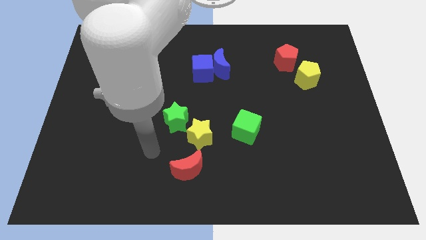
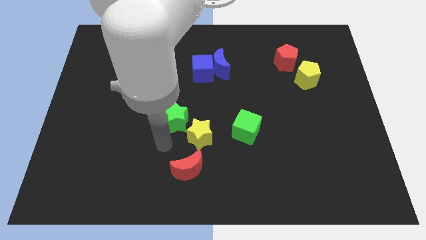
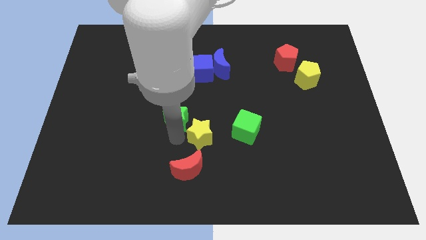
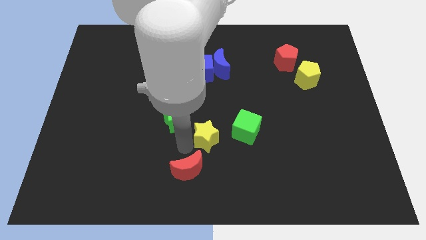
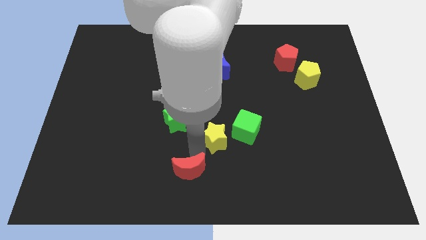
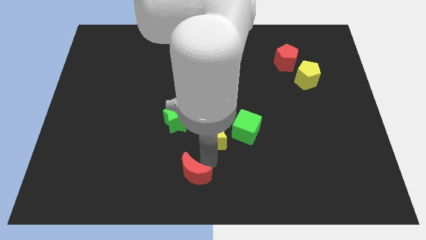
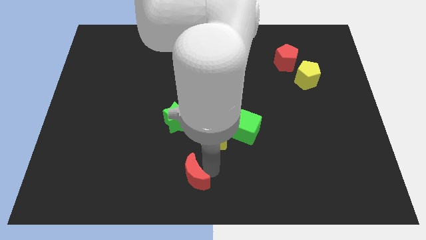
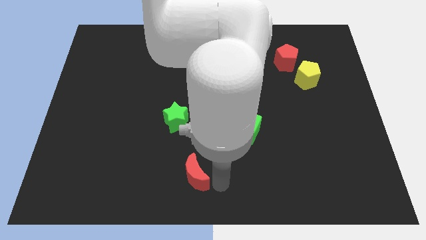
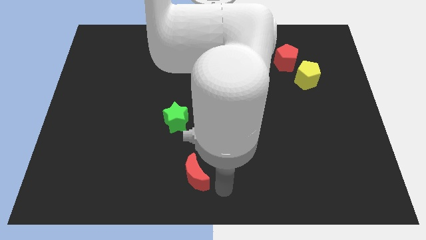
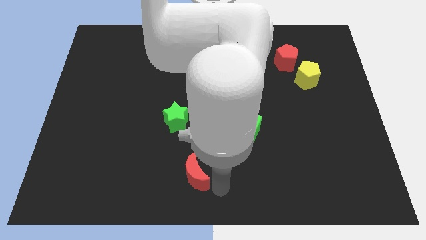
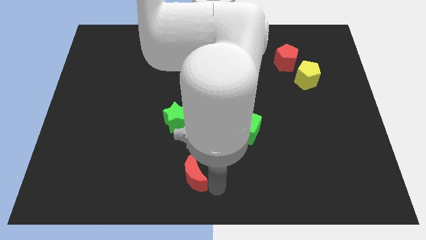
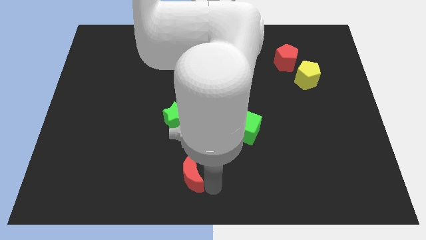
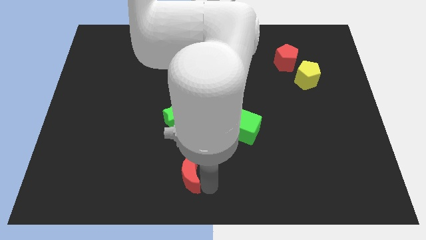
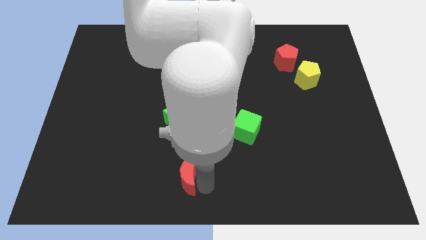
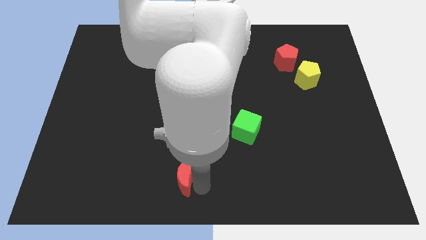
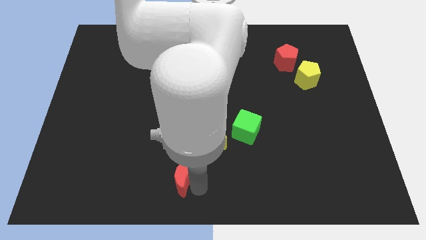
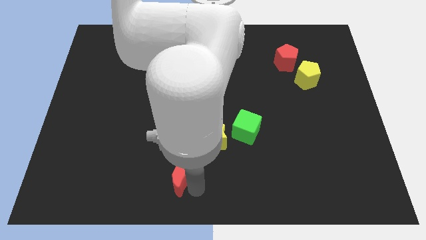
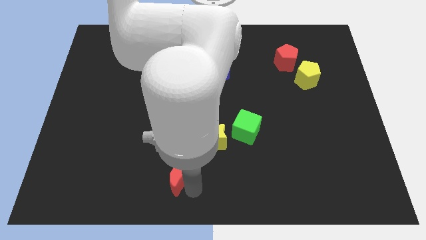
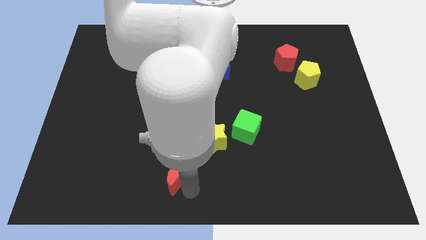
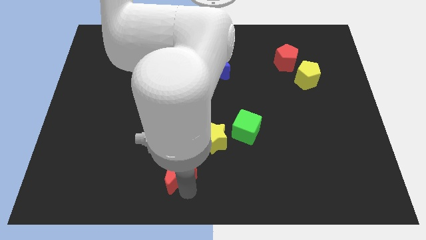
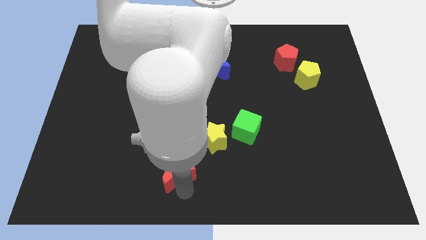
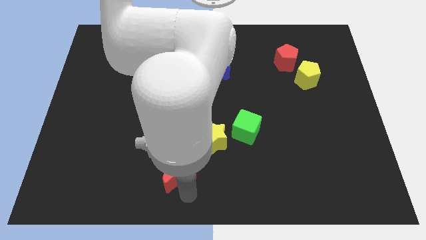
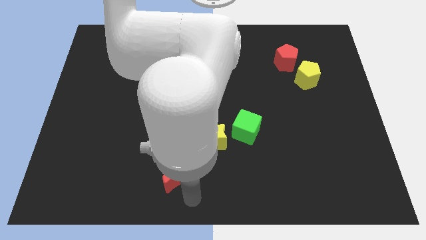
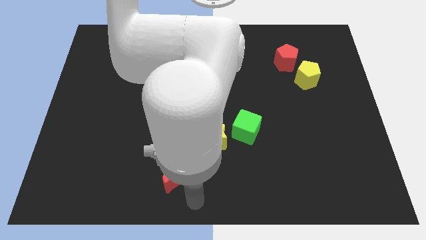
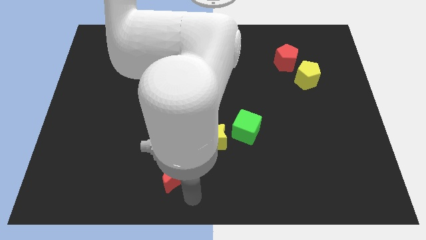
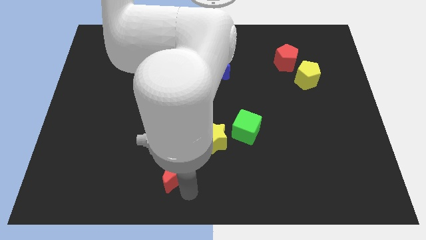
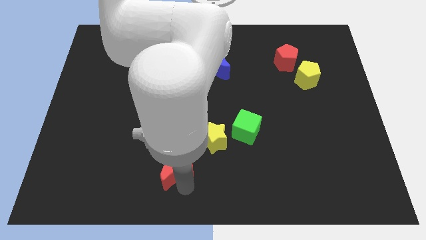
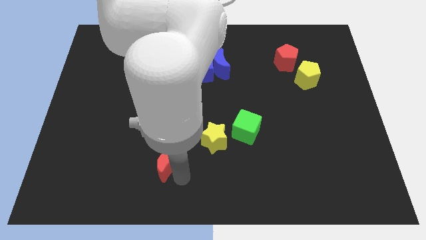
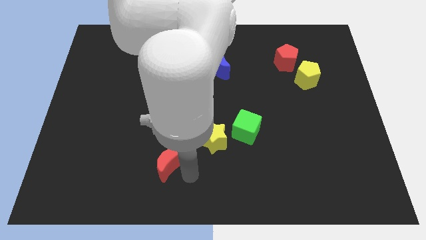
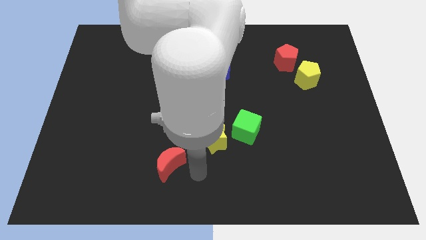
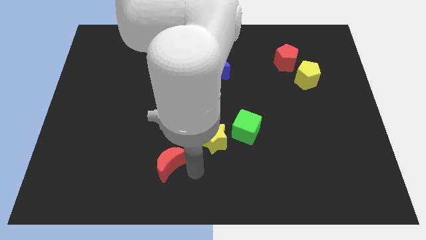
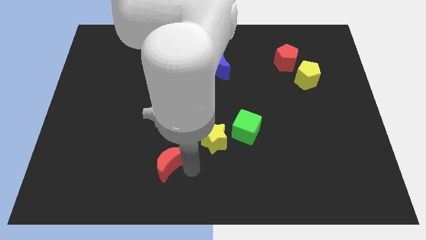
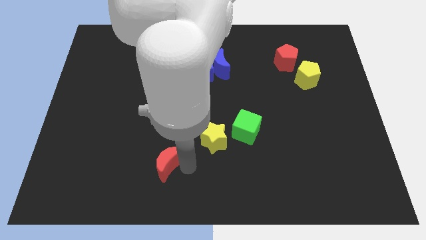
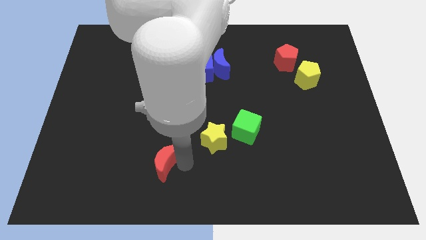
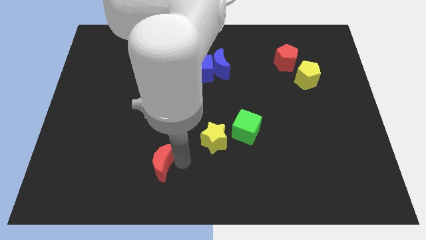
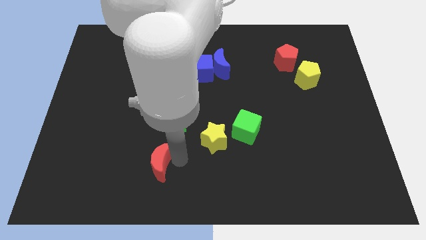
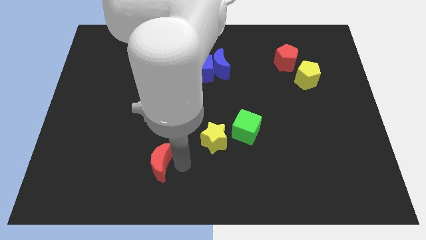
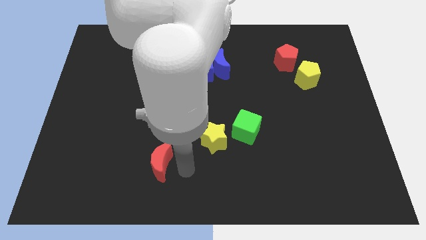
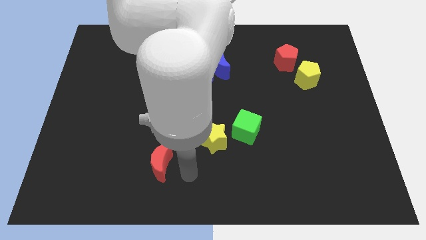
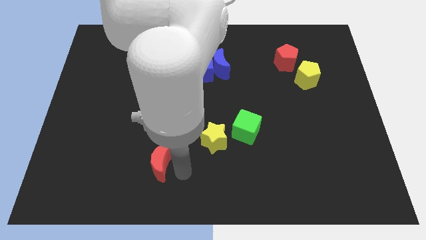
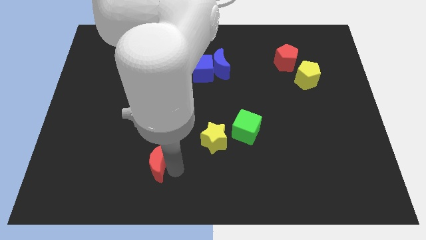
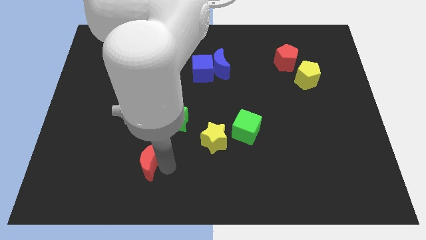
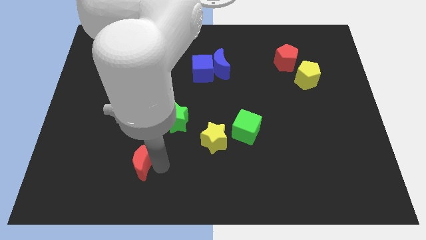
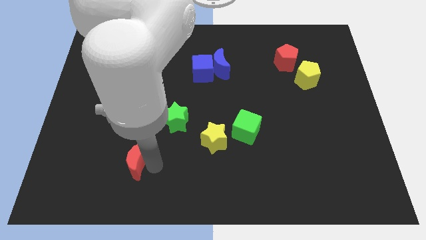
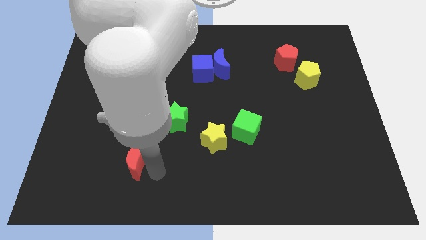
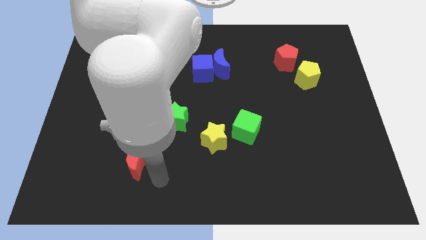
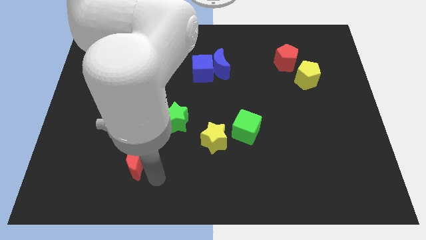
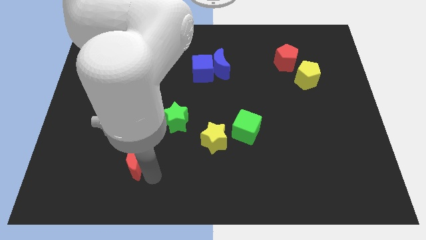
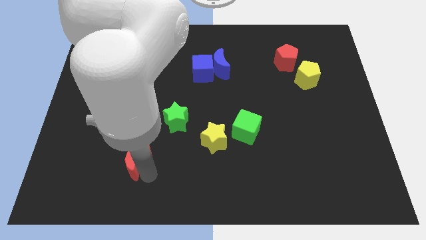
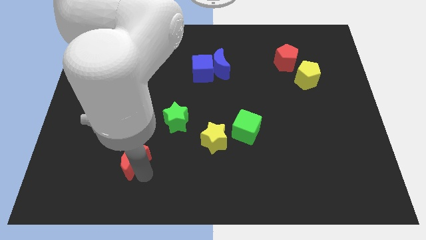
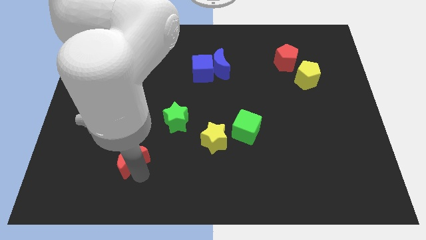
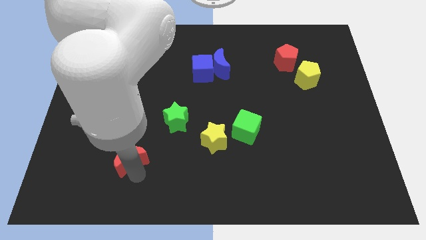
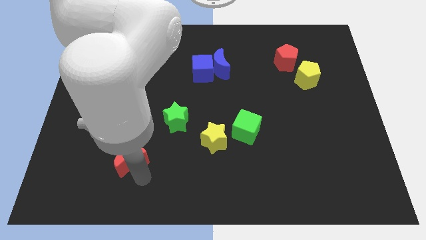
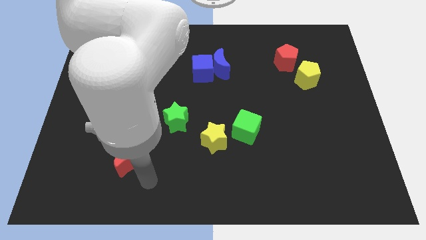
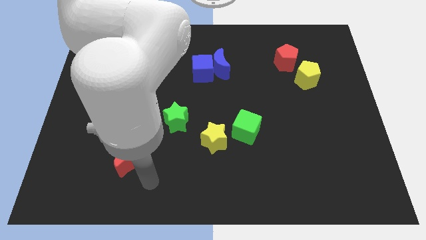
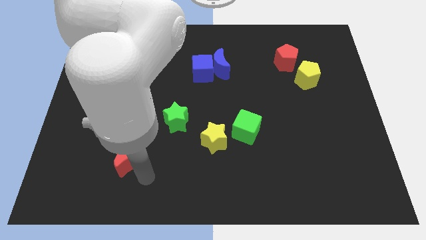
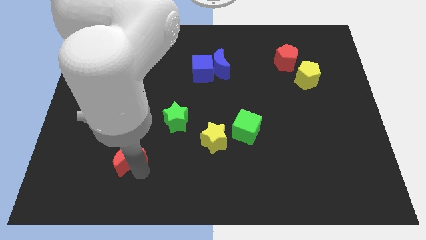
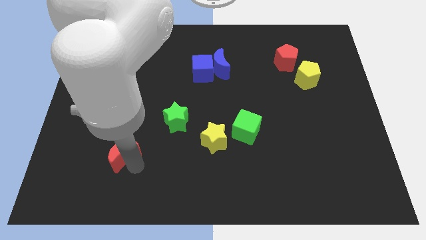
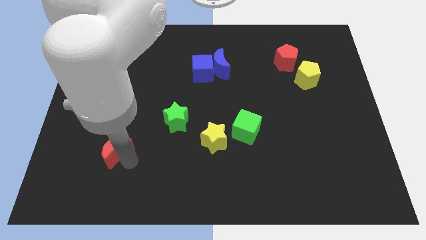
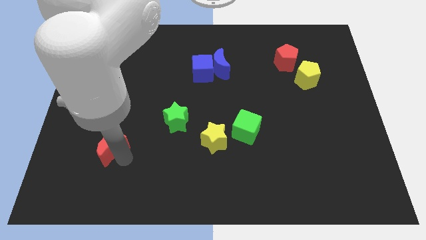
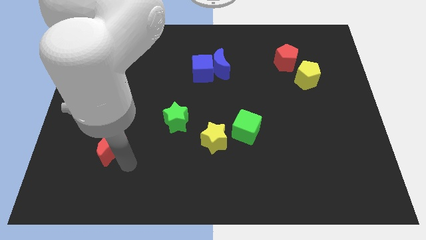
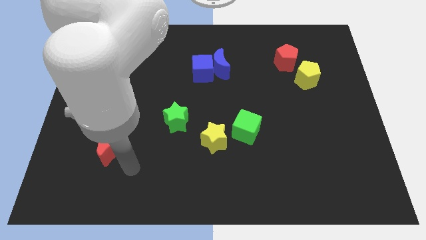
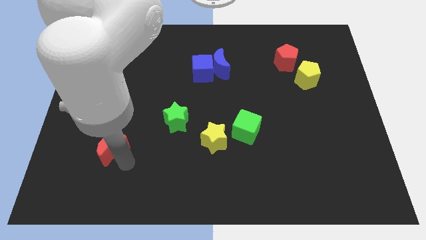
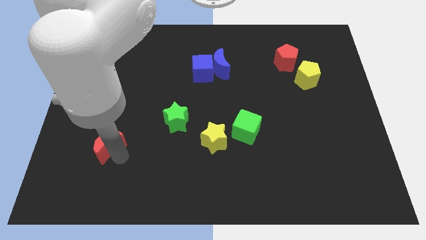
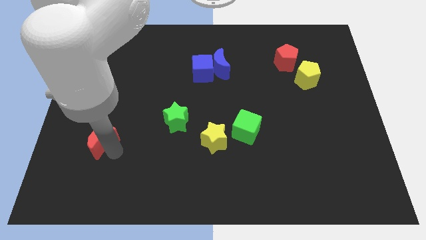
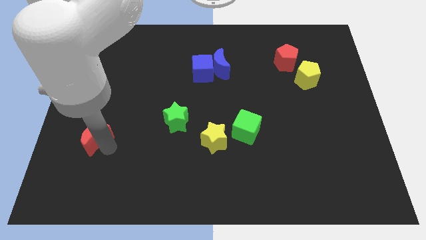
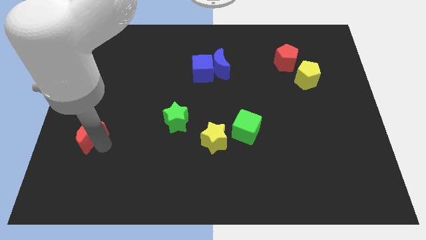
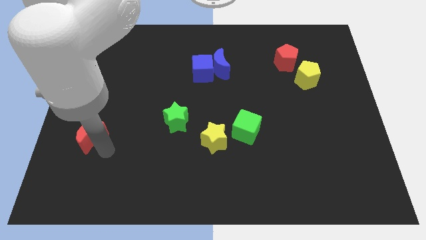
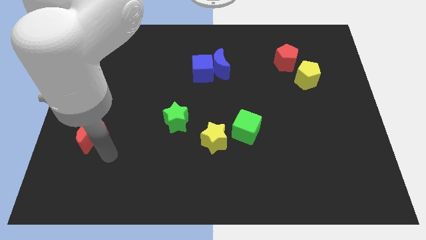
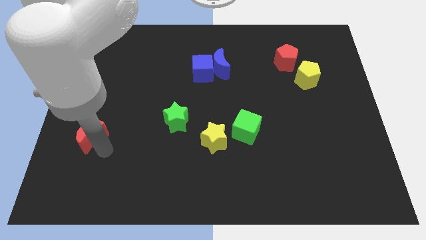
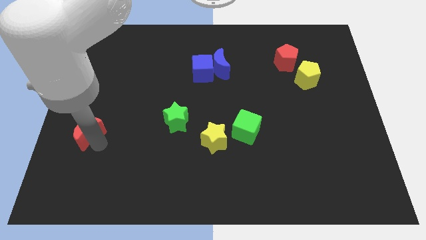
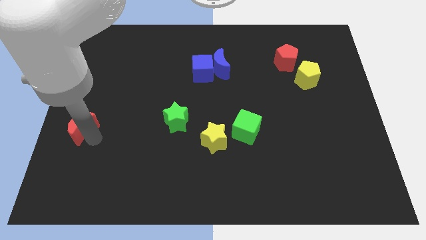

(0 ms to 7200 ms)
put the red moon to the center left
